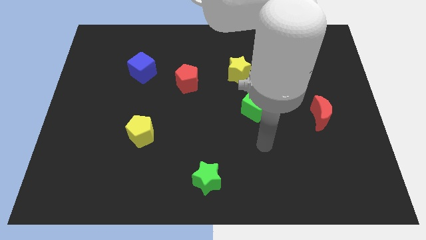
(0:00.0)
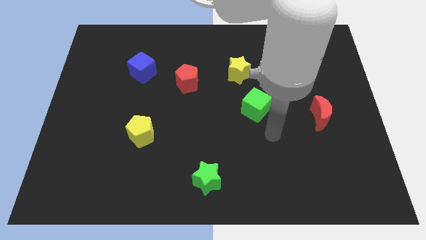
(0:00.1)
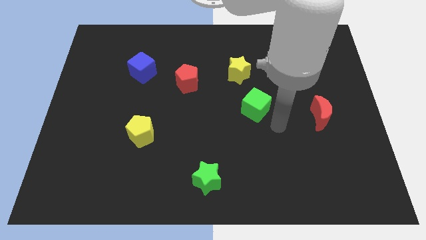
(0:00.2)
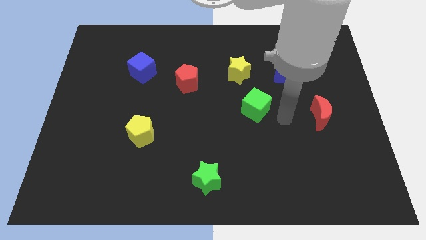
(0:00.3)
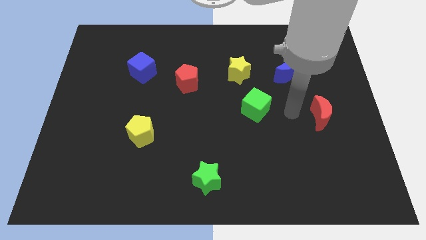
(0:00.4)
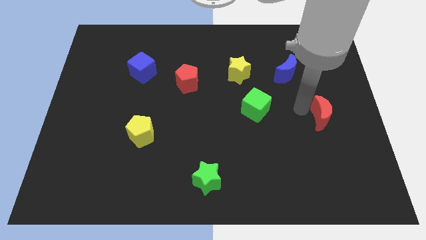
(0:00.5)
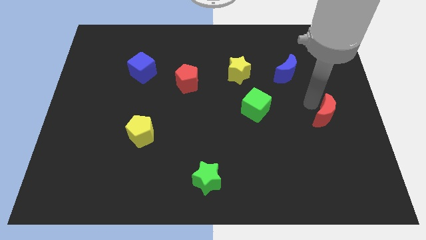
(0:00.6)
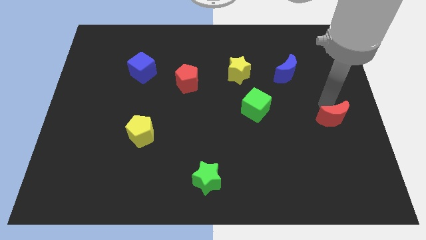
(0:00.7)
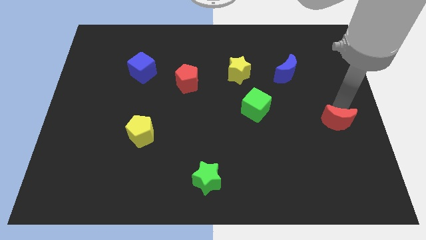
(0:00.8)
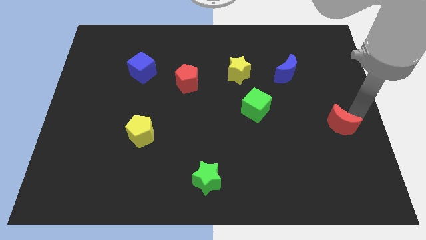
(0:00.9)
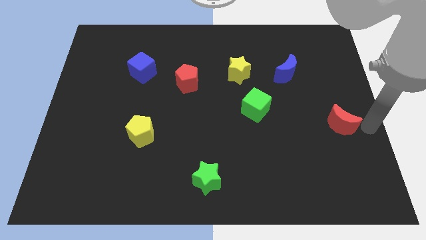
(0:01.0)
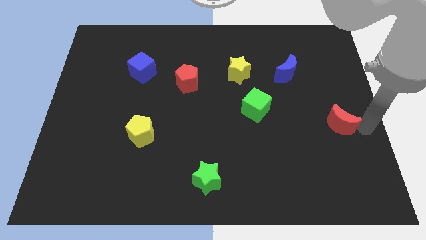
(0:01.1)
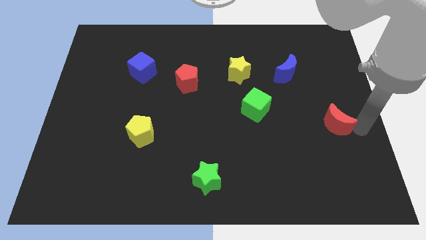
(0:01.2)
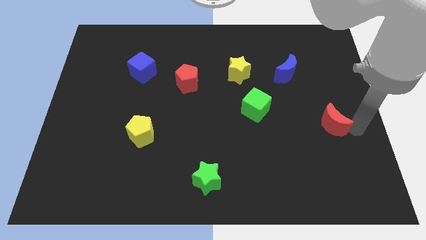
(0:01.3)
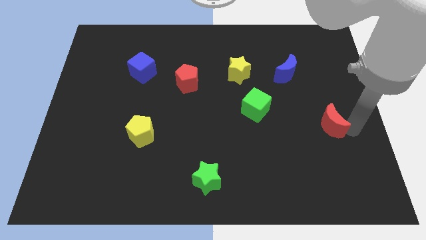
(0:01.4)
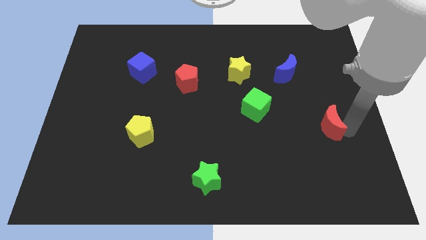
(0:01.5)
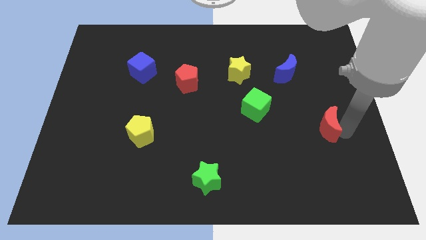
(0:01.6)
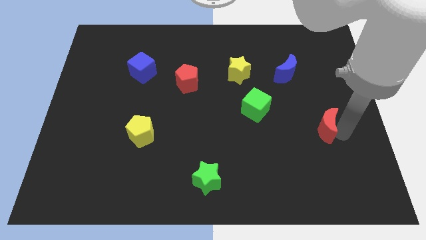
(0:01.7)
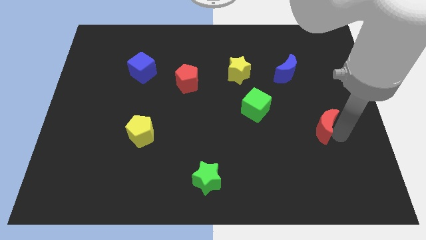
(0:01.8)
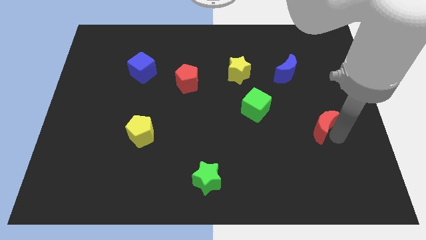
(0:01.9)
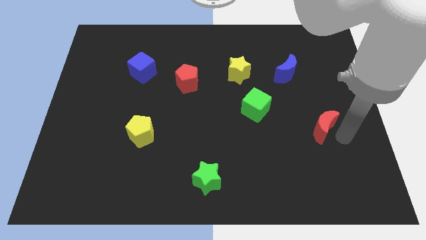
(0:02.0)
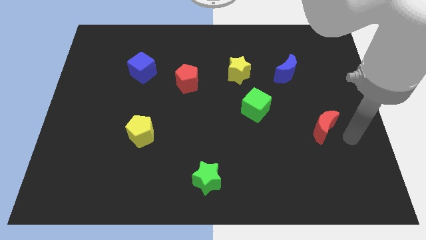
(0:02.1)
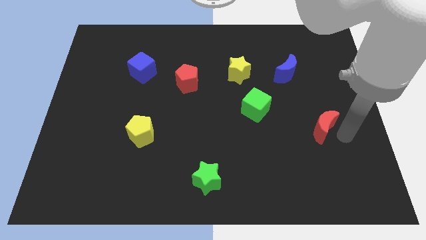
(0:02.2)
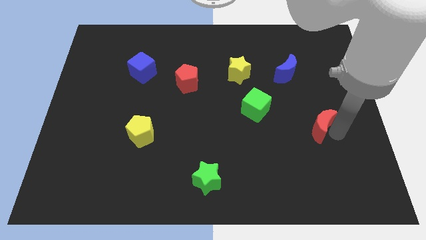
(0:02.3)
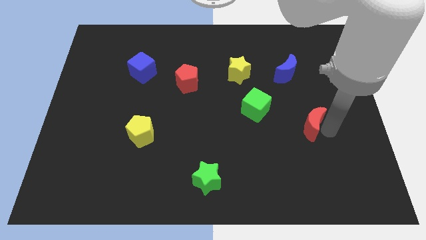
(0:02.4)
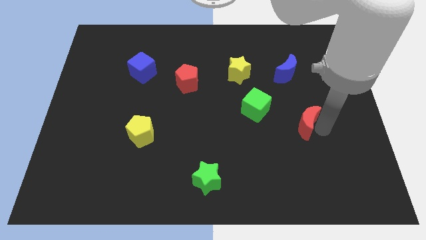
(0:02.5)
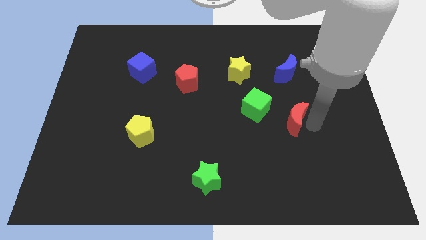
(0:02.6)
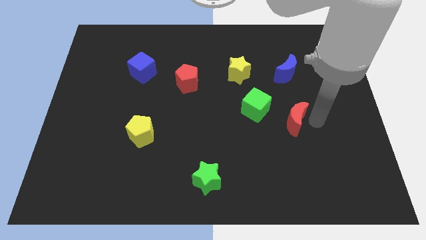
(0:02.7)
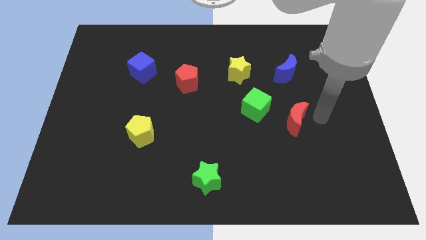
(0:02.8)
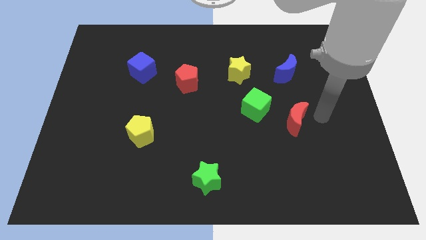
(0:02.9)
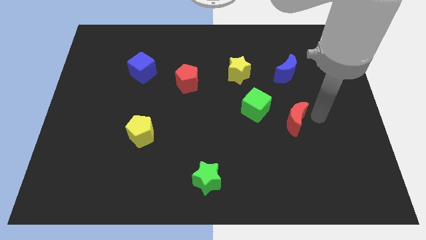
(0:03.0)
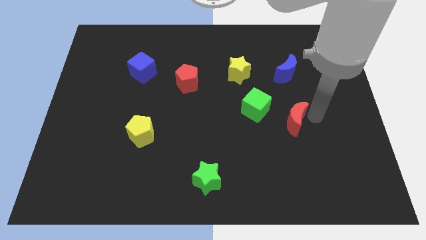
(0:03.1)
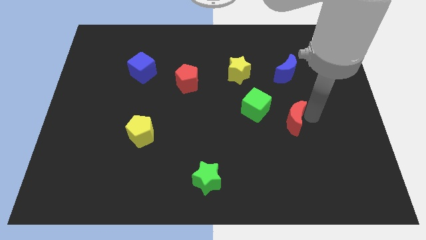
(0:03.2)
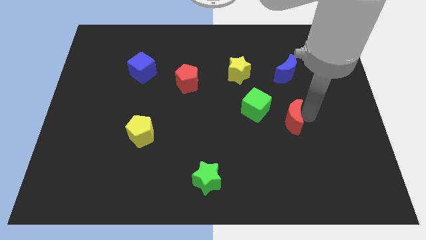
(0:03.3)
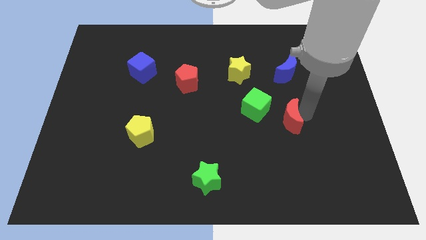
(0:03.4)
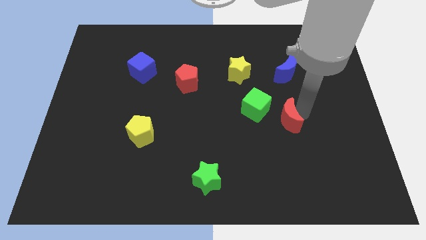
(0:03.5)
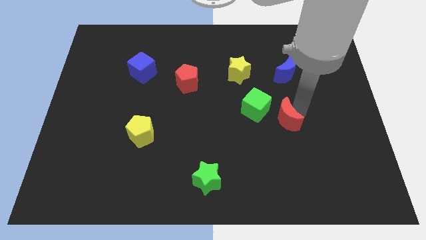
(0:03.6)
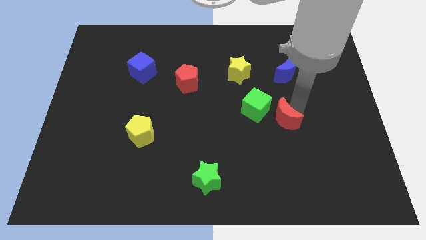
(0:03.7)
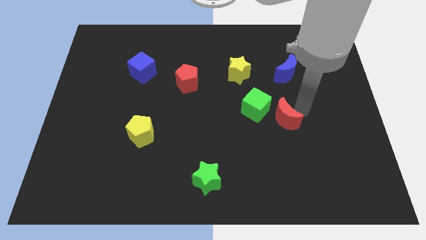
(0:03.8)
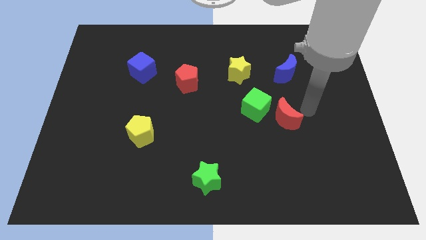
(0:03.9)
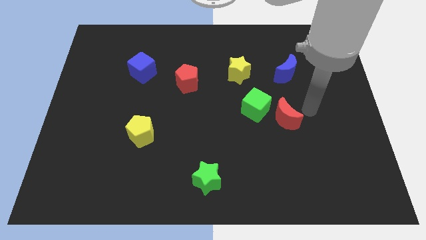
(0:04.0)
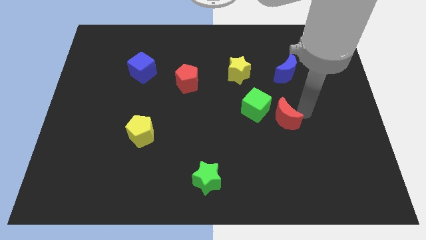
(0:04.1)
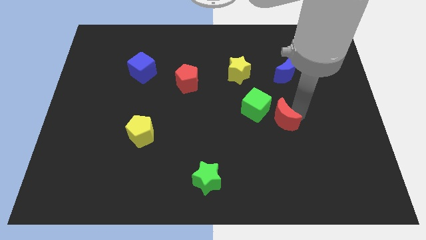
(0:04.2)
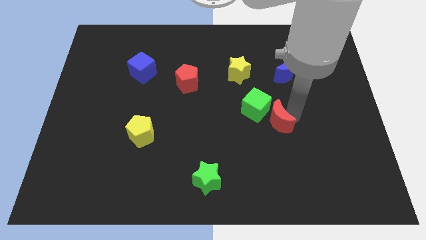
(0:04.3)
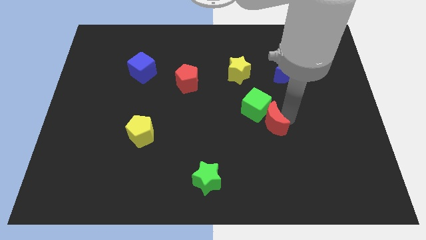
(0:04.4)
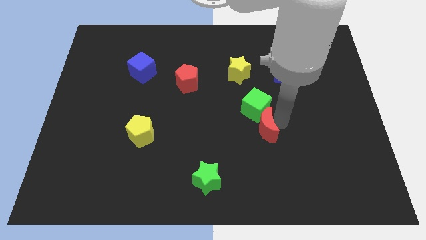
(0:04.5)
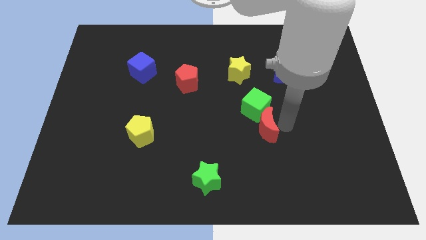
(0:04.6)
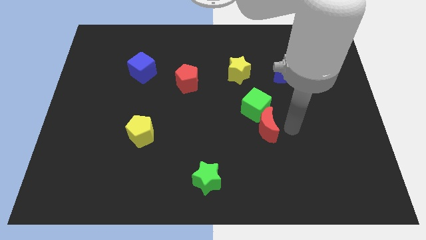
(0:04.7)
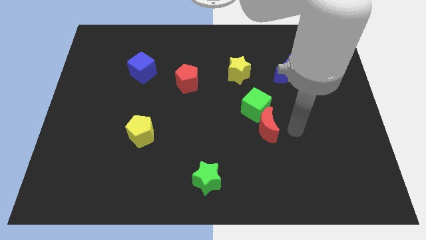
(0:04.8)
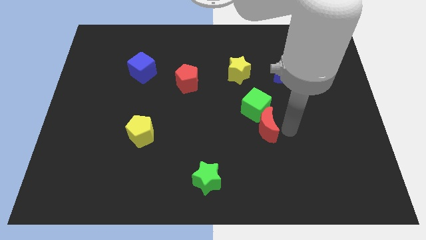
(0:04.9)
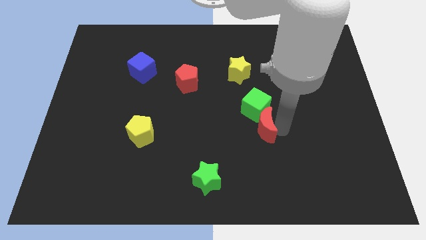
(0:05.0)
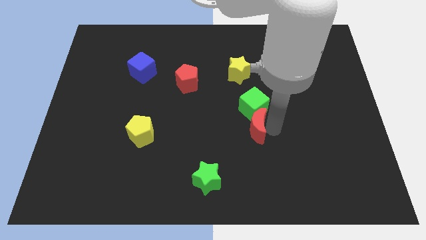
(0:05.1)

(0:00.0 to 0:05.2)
slide the red moon diagonally down and to the left of the green cube

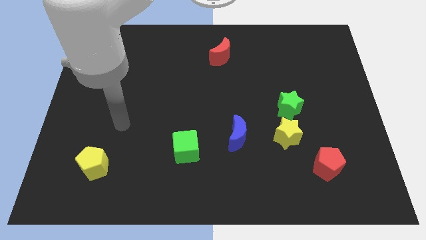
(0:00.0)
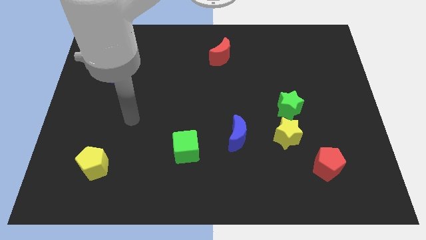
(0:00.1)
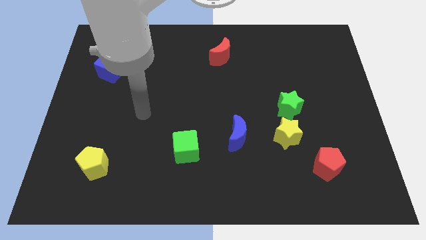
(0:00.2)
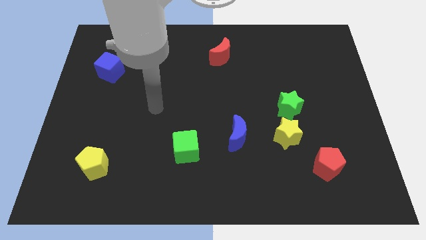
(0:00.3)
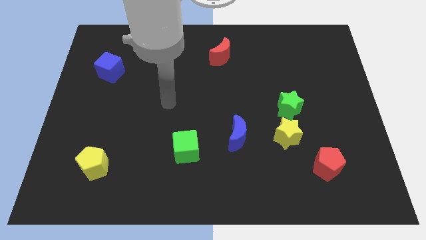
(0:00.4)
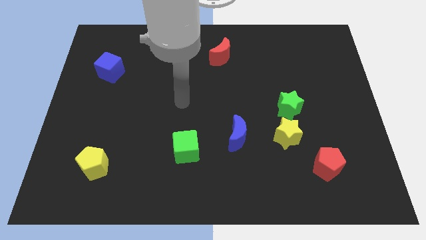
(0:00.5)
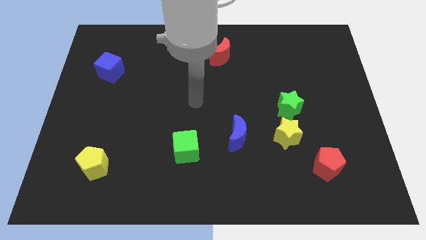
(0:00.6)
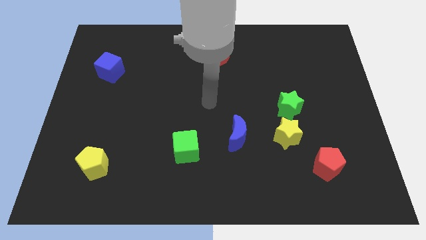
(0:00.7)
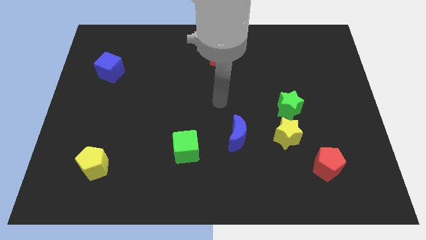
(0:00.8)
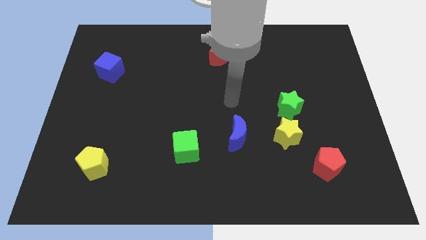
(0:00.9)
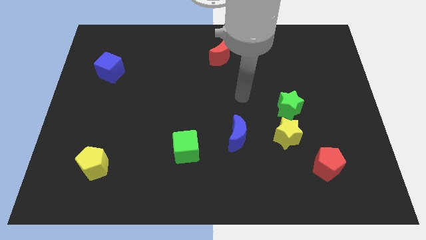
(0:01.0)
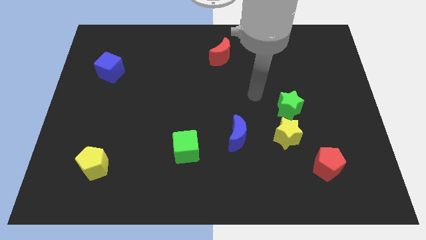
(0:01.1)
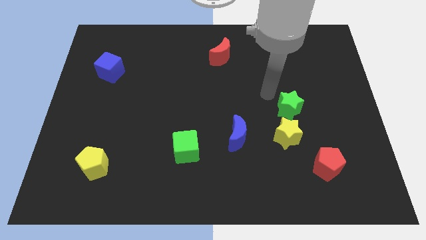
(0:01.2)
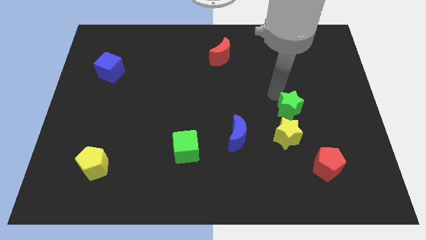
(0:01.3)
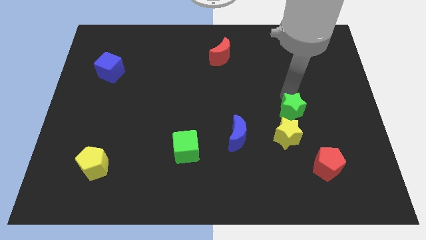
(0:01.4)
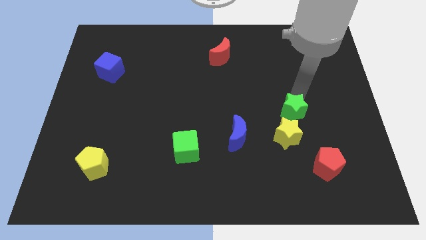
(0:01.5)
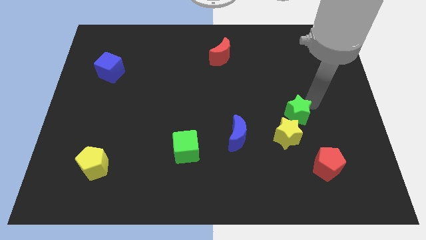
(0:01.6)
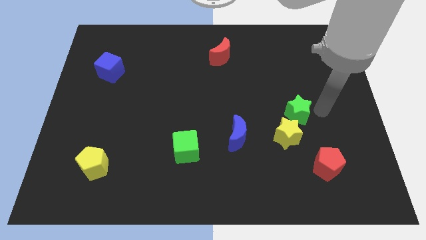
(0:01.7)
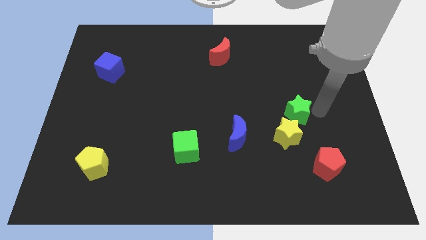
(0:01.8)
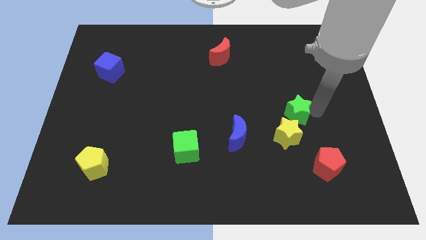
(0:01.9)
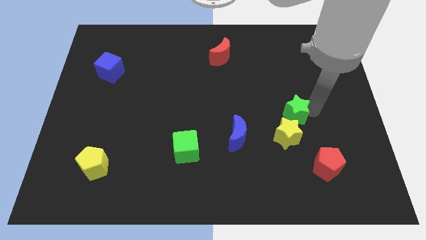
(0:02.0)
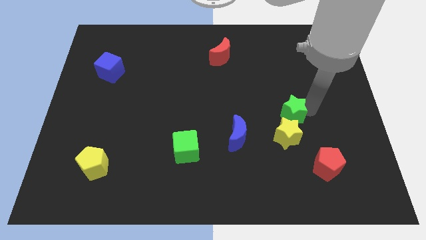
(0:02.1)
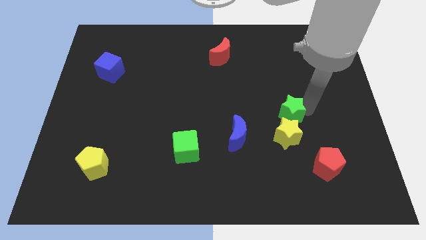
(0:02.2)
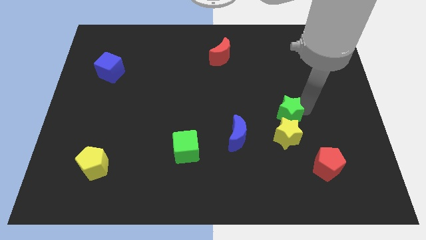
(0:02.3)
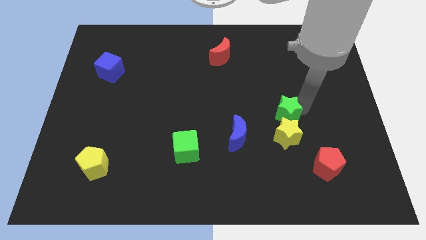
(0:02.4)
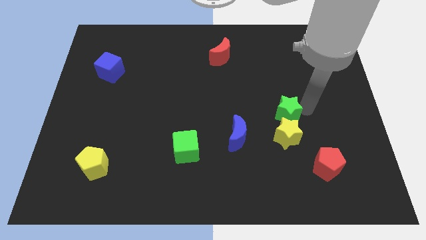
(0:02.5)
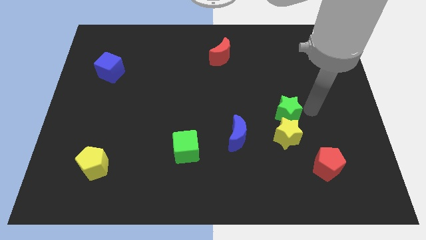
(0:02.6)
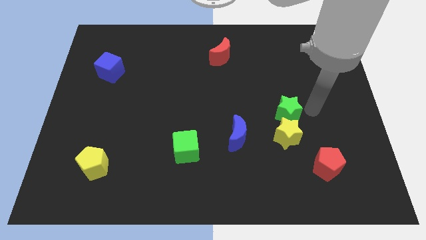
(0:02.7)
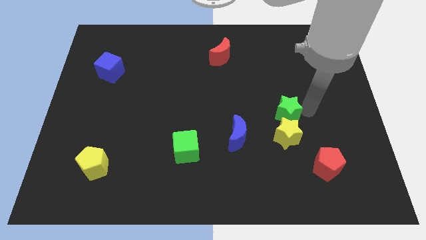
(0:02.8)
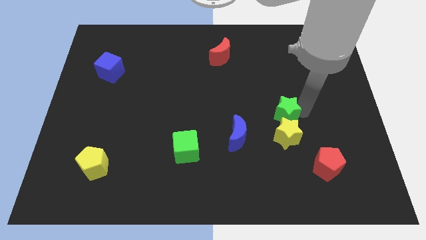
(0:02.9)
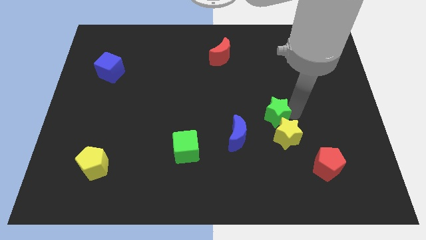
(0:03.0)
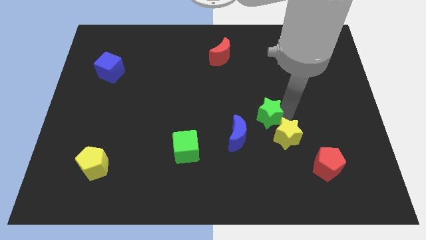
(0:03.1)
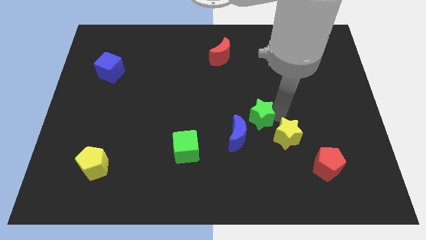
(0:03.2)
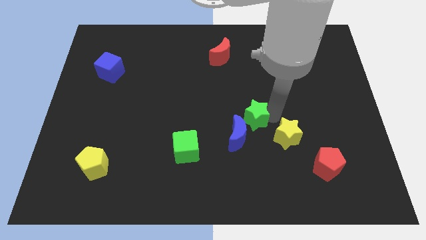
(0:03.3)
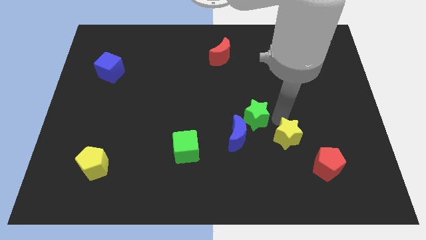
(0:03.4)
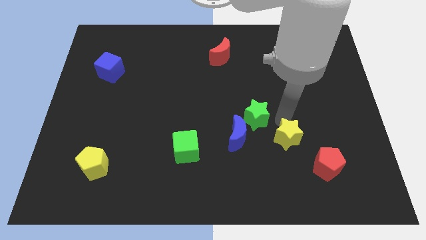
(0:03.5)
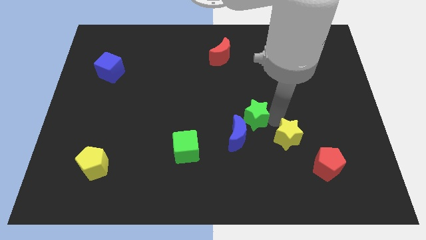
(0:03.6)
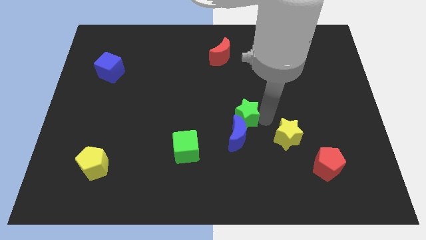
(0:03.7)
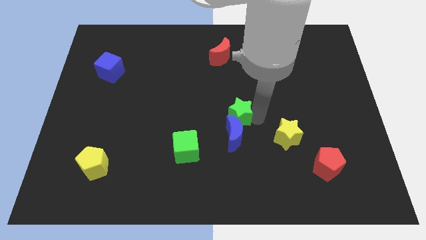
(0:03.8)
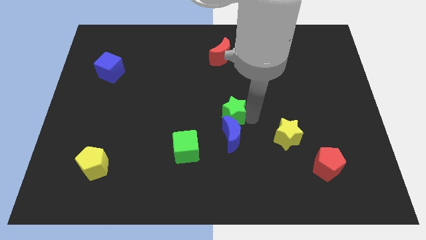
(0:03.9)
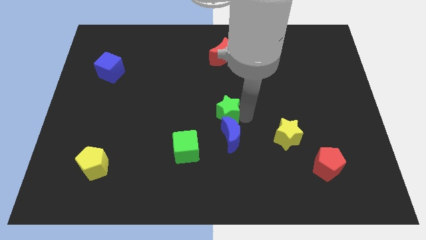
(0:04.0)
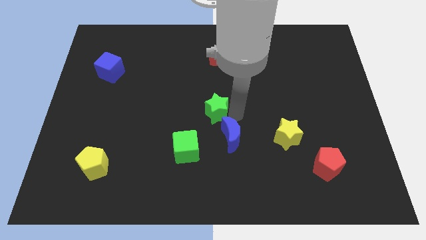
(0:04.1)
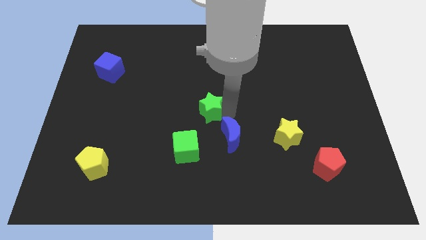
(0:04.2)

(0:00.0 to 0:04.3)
put the green star above the green cube
